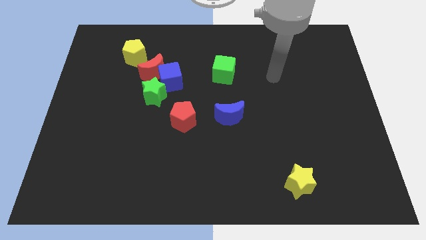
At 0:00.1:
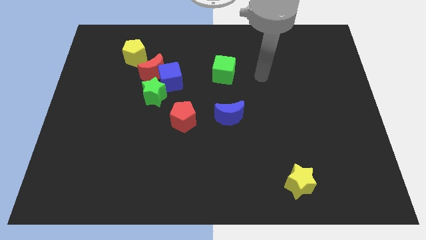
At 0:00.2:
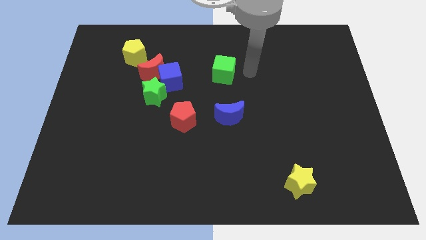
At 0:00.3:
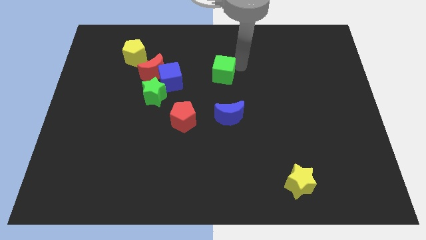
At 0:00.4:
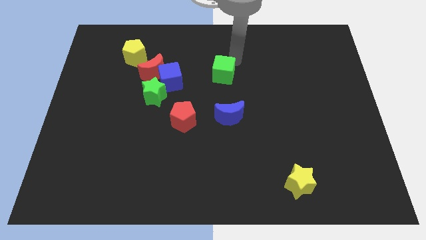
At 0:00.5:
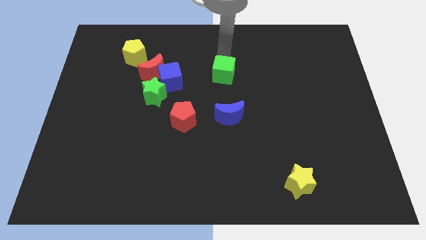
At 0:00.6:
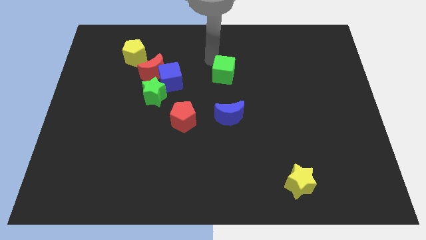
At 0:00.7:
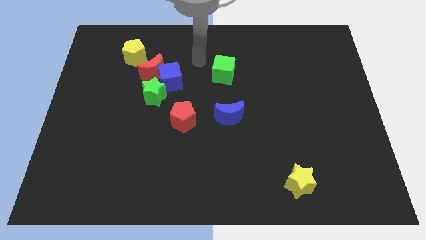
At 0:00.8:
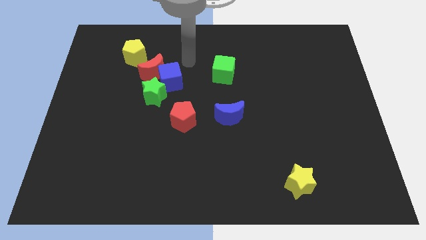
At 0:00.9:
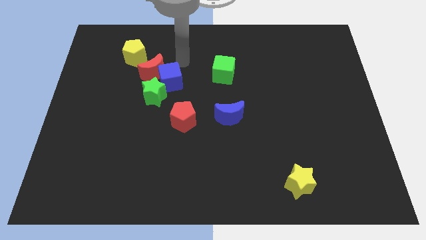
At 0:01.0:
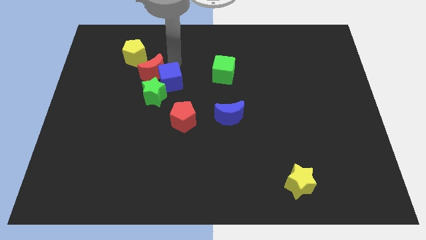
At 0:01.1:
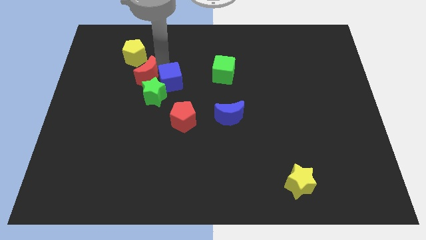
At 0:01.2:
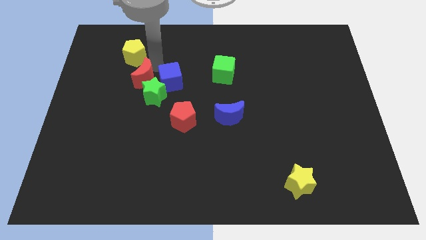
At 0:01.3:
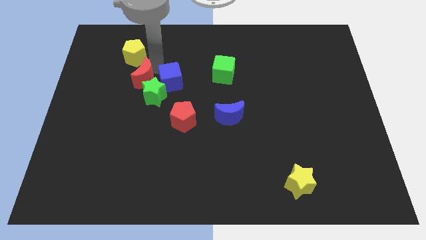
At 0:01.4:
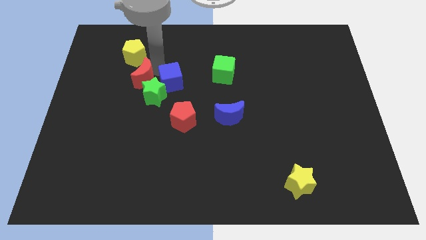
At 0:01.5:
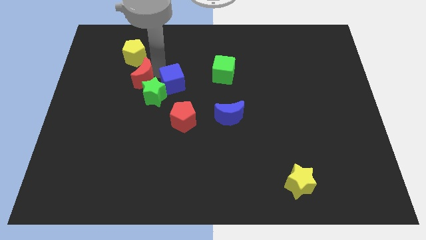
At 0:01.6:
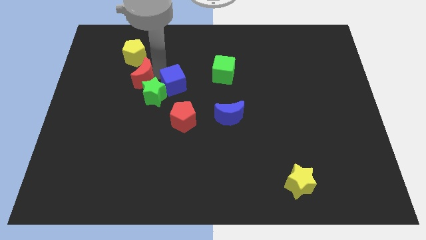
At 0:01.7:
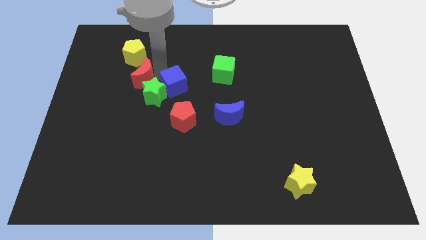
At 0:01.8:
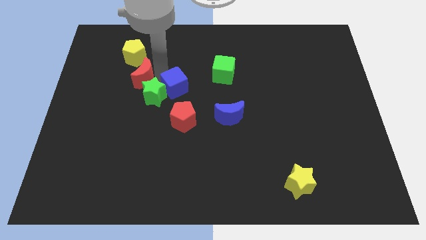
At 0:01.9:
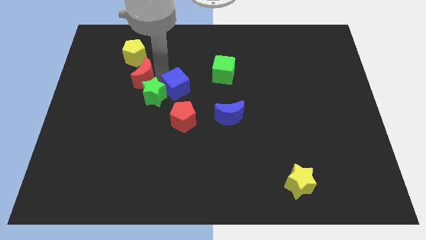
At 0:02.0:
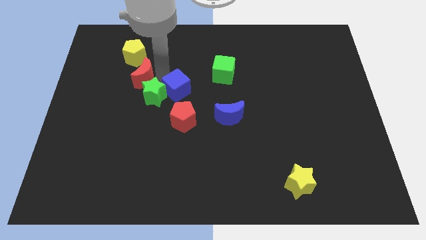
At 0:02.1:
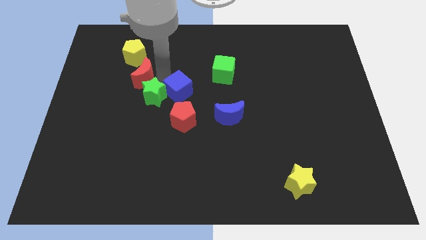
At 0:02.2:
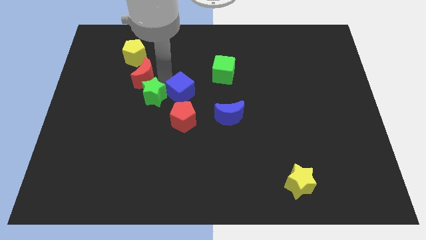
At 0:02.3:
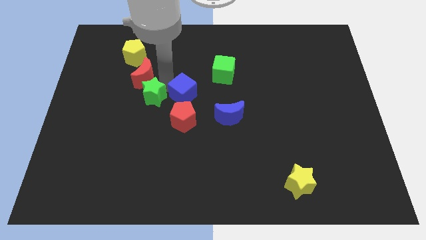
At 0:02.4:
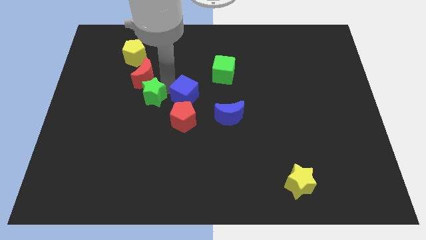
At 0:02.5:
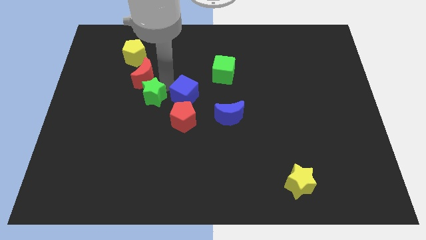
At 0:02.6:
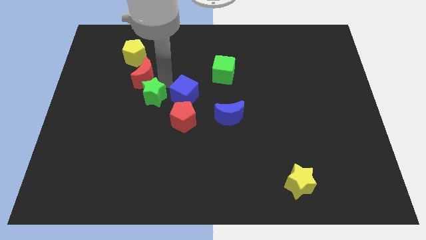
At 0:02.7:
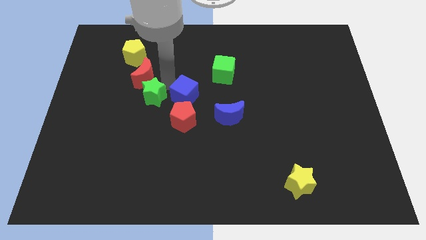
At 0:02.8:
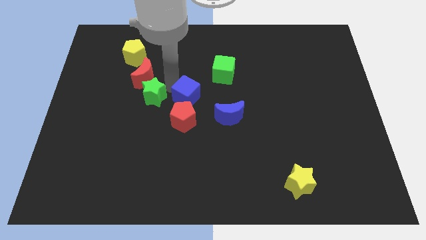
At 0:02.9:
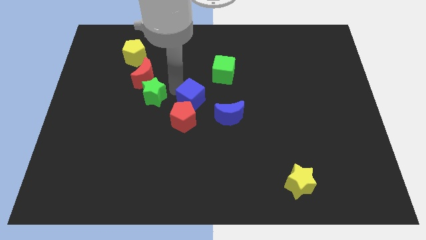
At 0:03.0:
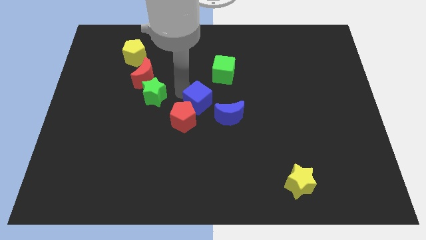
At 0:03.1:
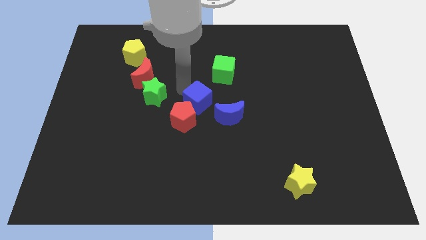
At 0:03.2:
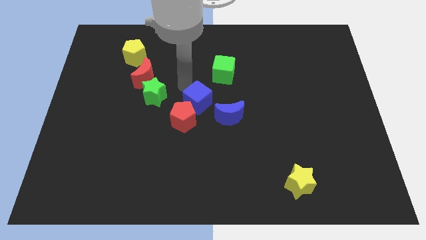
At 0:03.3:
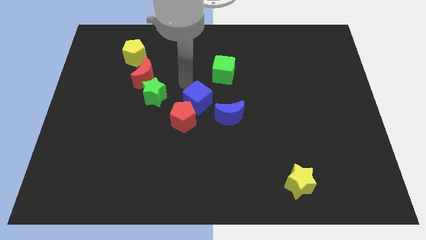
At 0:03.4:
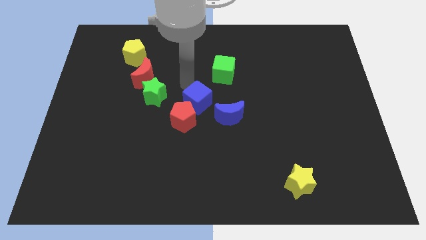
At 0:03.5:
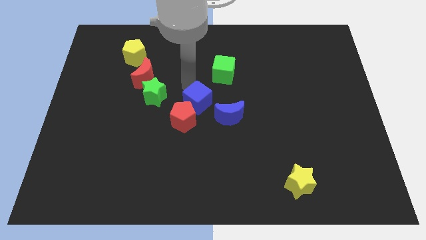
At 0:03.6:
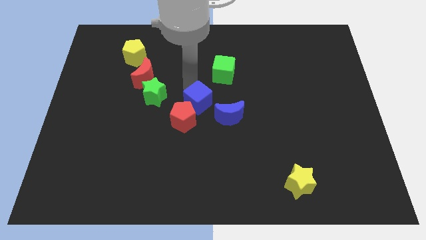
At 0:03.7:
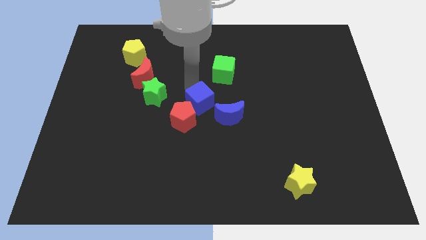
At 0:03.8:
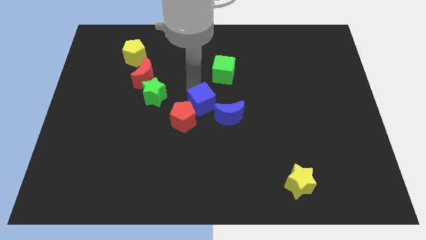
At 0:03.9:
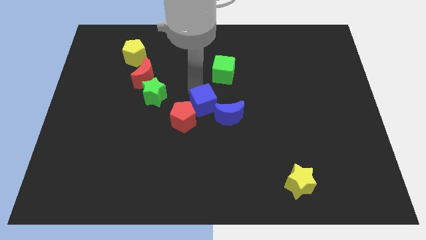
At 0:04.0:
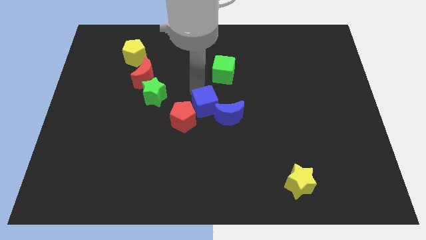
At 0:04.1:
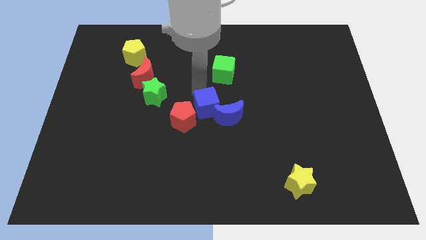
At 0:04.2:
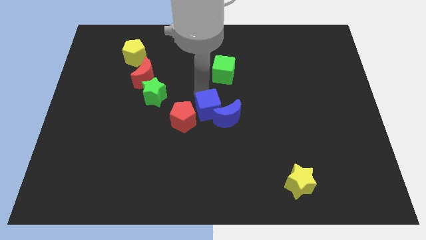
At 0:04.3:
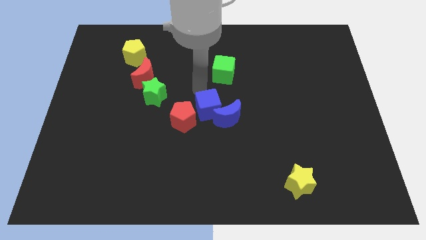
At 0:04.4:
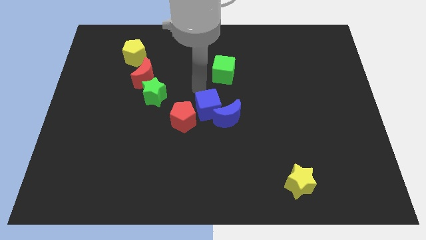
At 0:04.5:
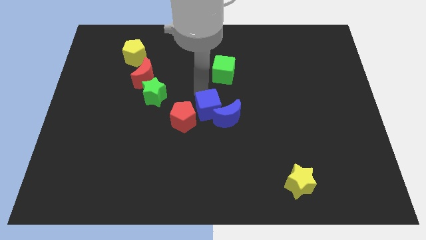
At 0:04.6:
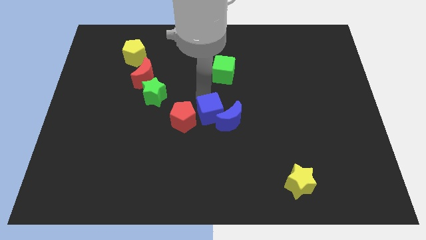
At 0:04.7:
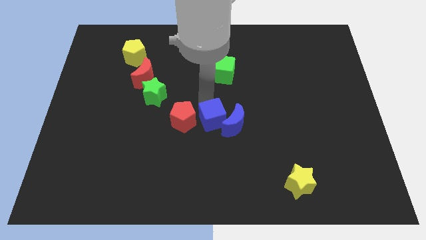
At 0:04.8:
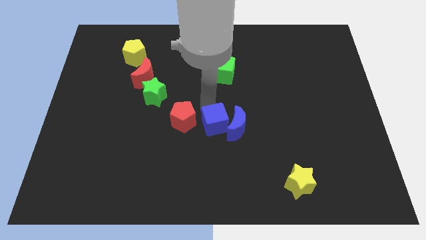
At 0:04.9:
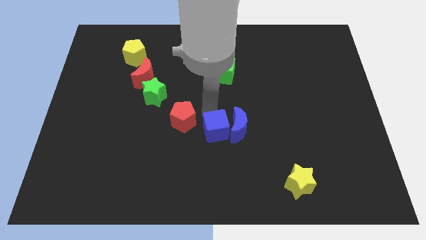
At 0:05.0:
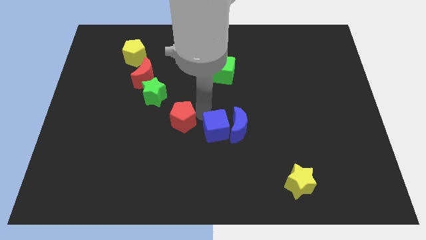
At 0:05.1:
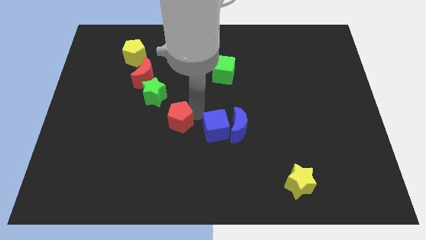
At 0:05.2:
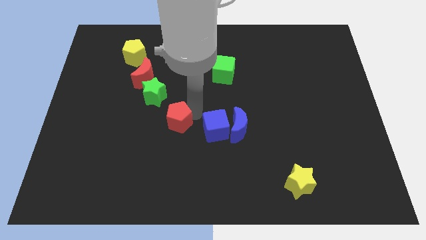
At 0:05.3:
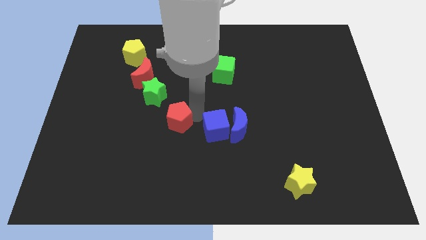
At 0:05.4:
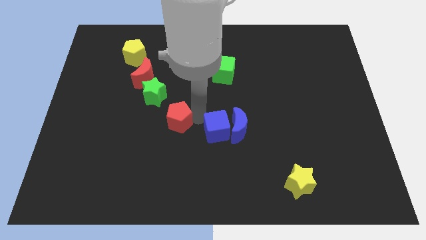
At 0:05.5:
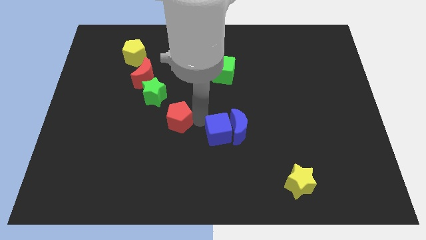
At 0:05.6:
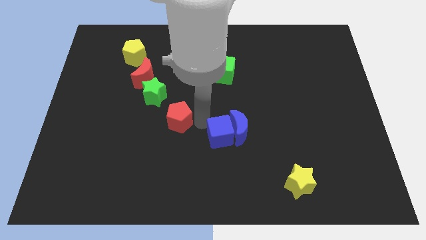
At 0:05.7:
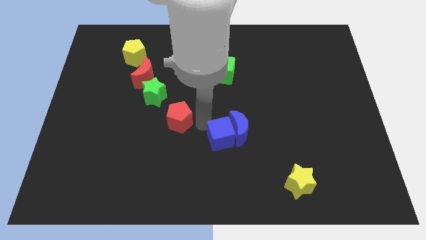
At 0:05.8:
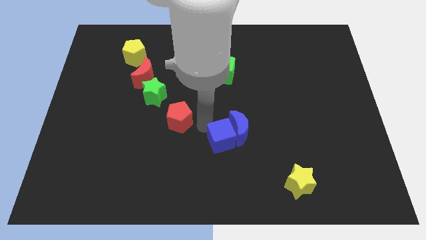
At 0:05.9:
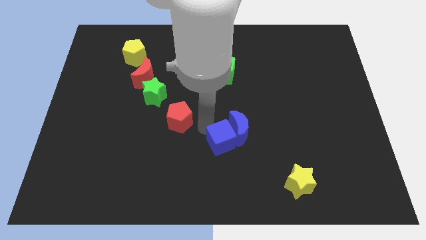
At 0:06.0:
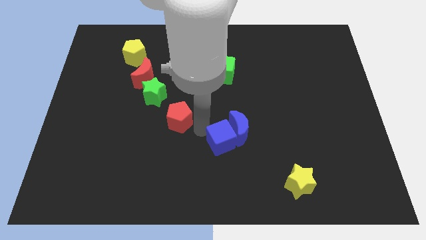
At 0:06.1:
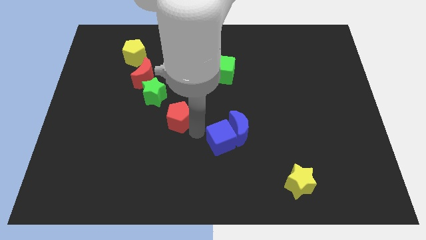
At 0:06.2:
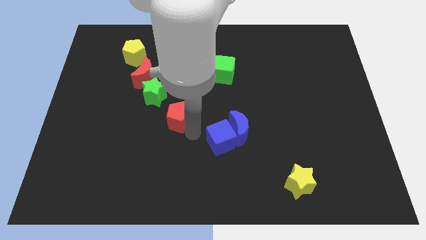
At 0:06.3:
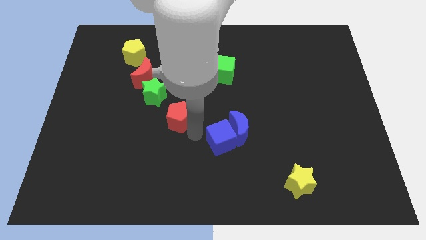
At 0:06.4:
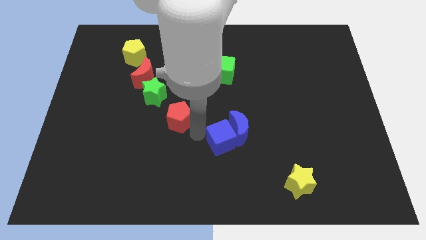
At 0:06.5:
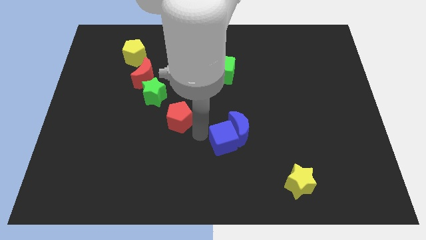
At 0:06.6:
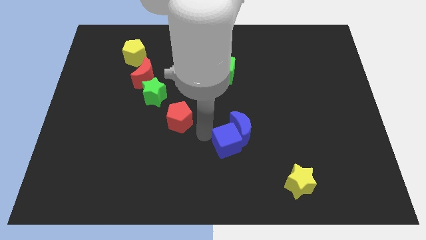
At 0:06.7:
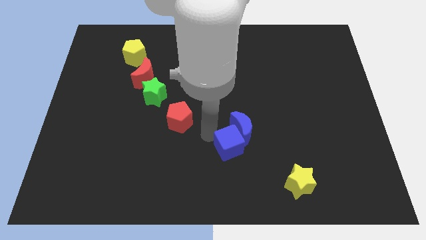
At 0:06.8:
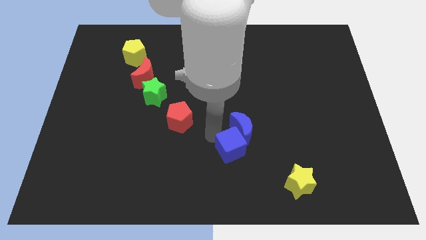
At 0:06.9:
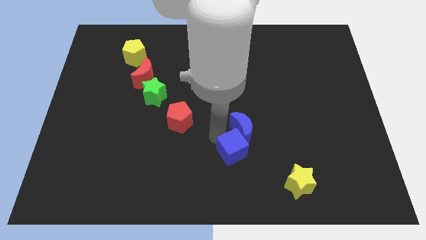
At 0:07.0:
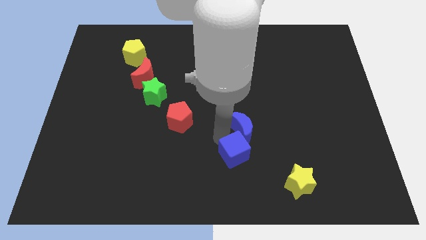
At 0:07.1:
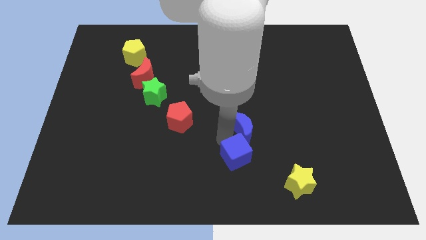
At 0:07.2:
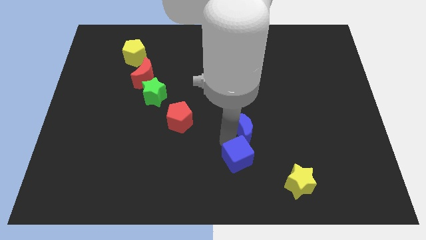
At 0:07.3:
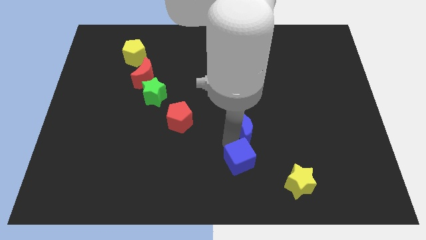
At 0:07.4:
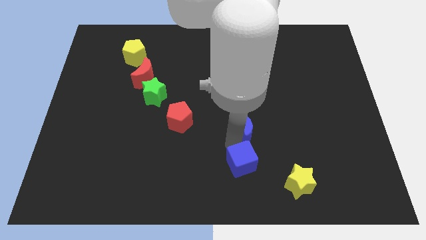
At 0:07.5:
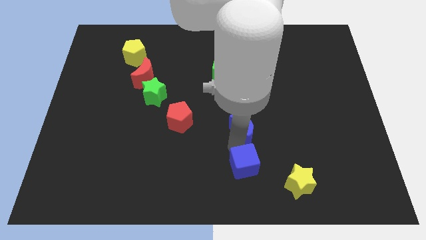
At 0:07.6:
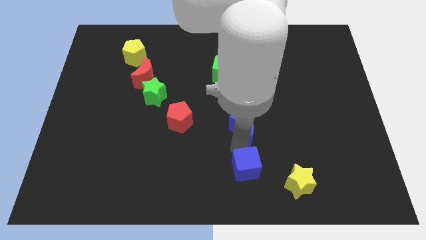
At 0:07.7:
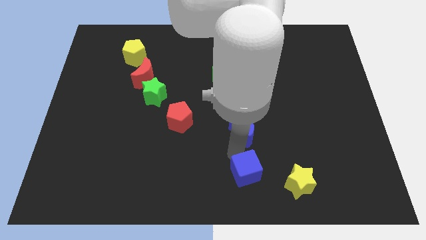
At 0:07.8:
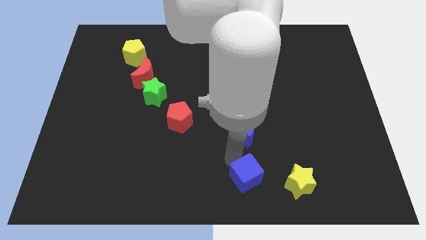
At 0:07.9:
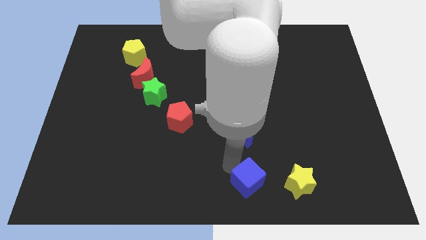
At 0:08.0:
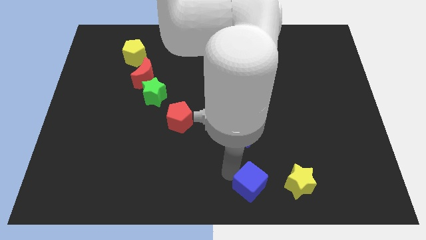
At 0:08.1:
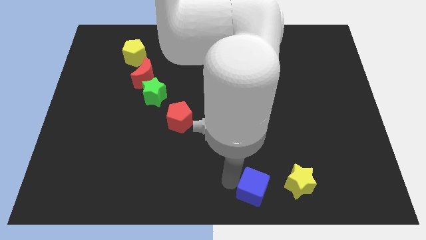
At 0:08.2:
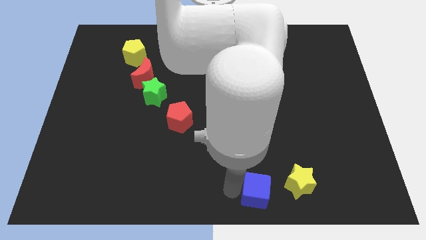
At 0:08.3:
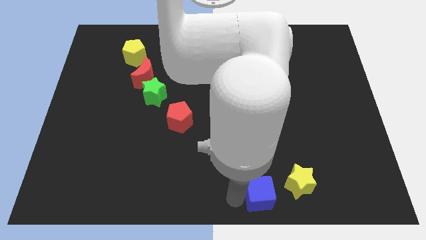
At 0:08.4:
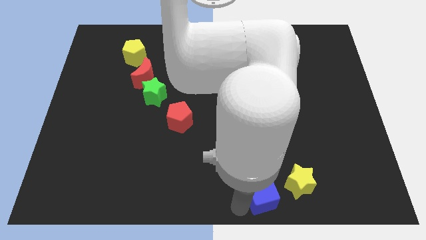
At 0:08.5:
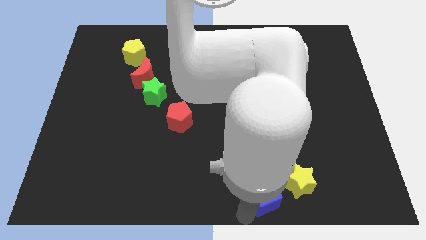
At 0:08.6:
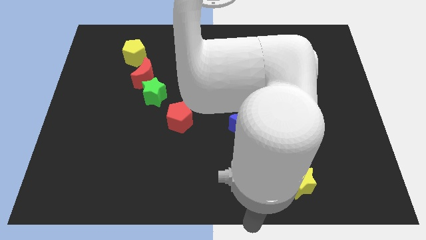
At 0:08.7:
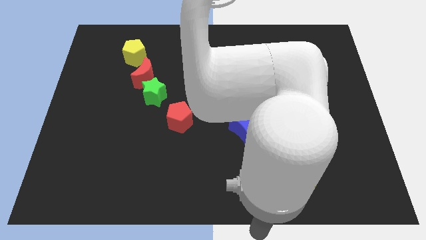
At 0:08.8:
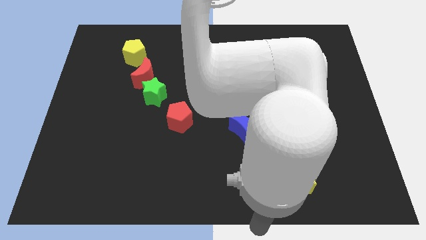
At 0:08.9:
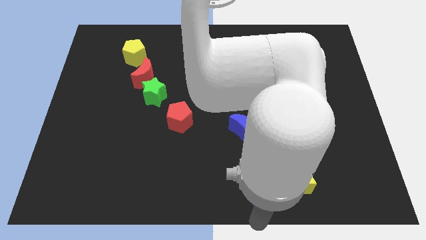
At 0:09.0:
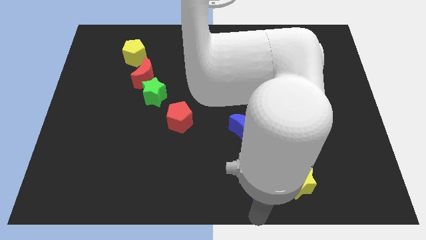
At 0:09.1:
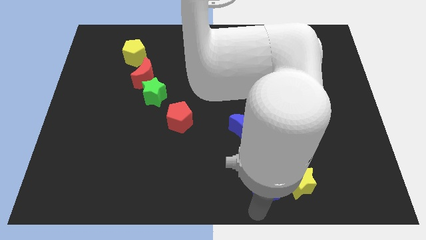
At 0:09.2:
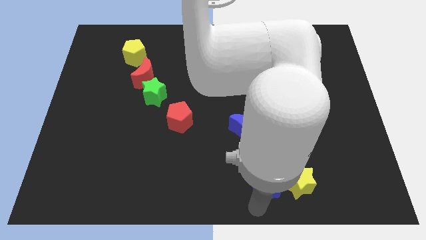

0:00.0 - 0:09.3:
move the blue cube towards the yellow star
